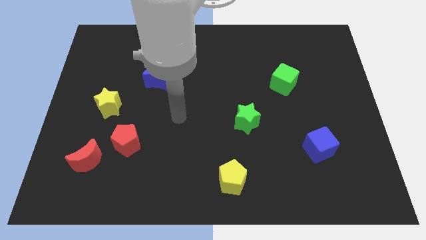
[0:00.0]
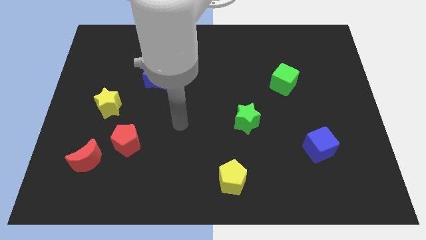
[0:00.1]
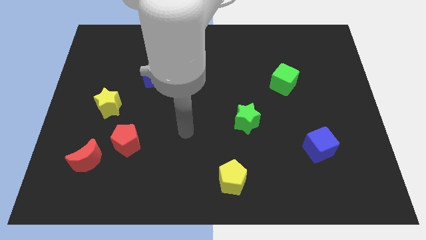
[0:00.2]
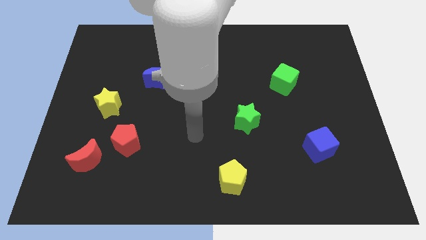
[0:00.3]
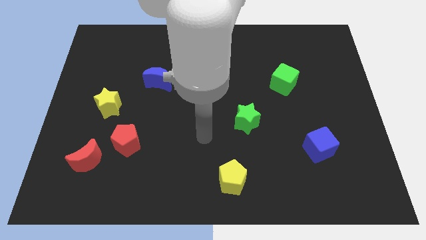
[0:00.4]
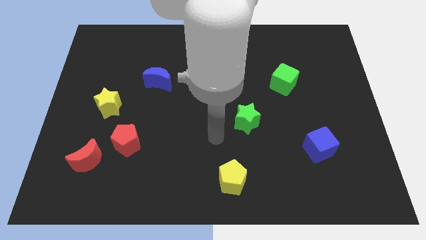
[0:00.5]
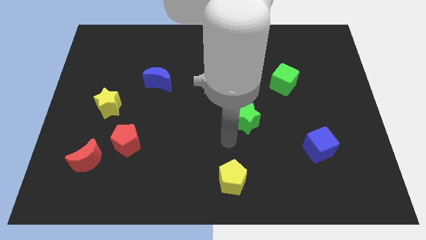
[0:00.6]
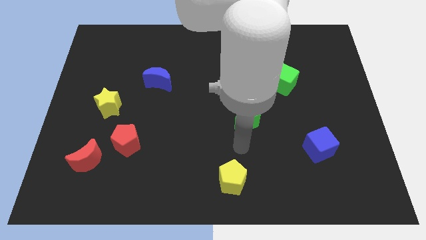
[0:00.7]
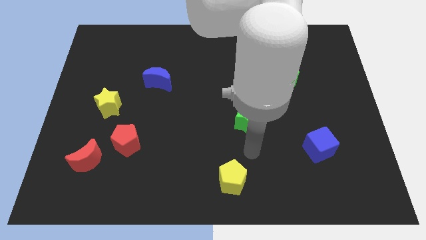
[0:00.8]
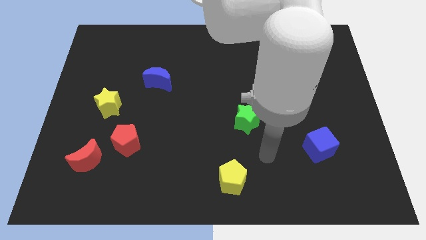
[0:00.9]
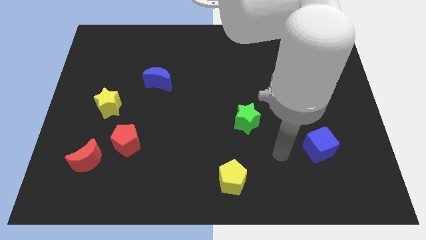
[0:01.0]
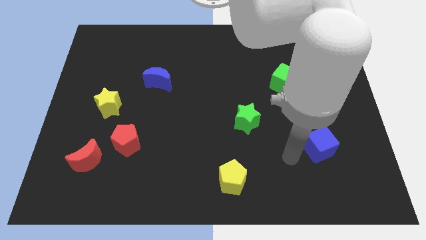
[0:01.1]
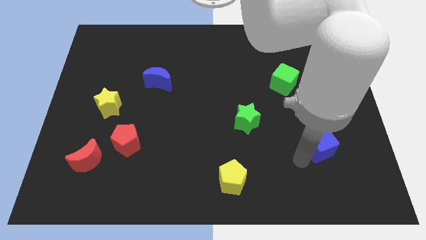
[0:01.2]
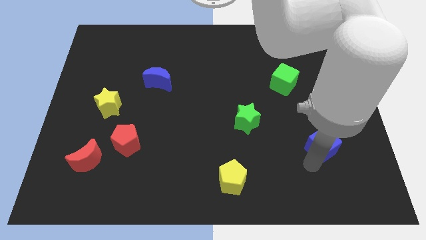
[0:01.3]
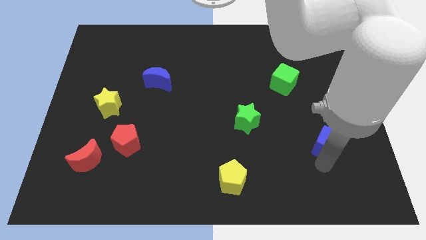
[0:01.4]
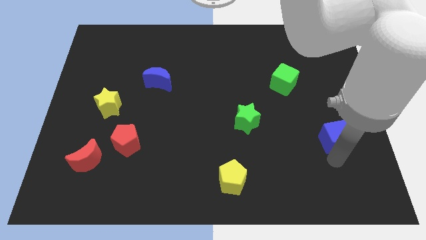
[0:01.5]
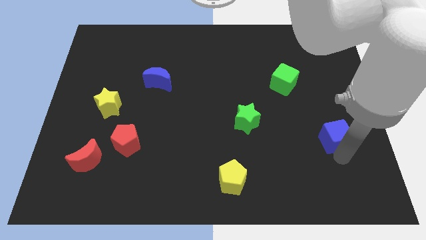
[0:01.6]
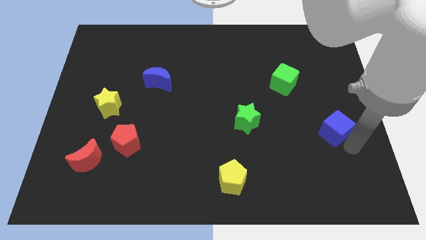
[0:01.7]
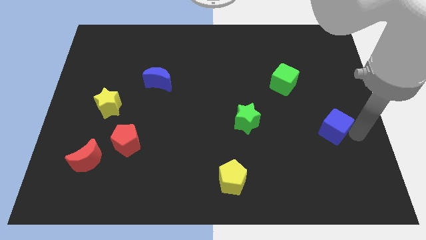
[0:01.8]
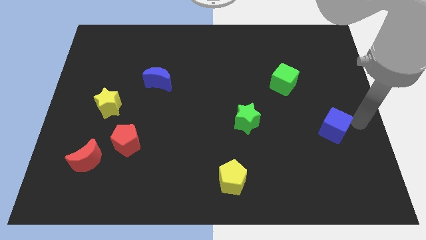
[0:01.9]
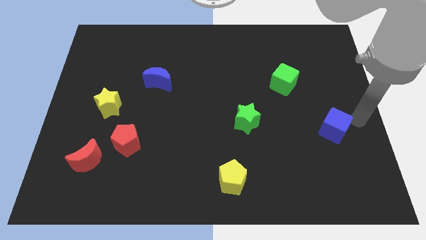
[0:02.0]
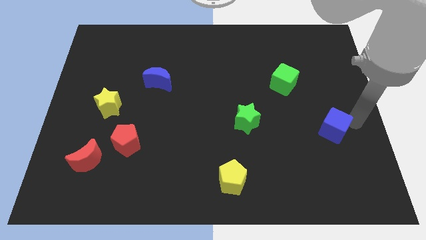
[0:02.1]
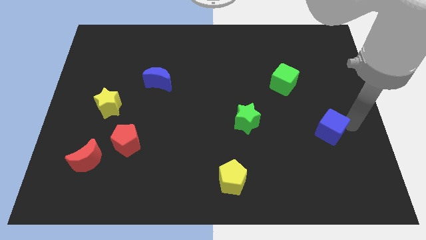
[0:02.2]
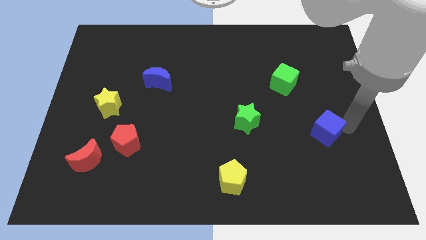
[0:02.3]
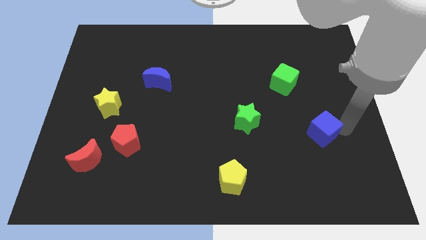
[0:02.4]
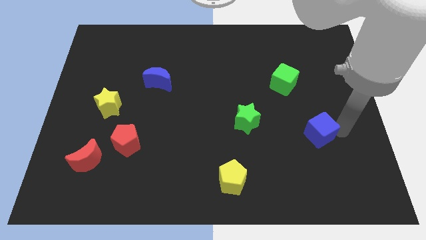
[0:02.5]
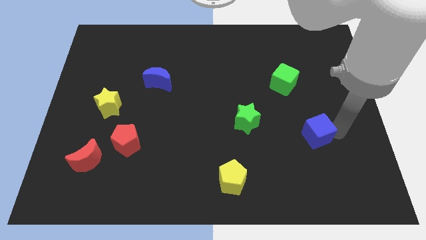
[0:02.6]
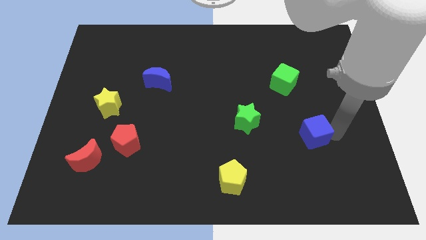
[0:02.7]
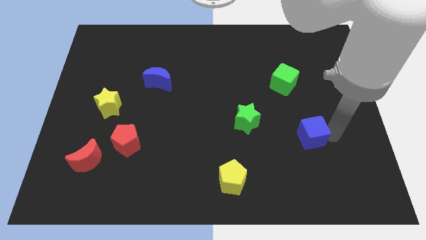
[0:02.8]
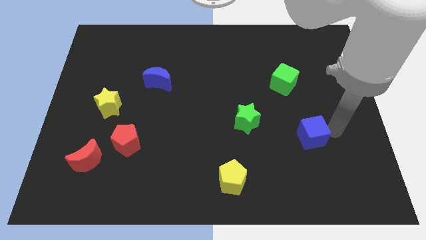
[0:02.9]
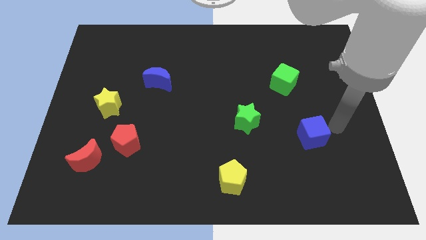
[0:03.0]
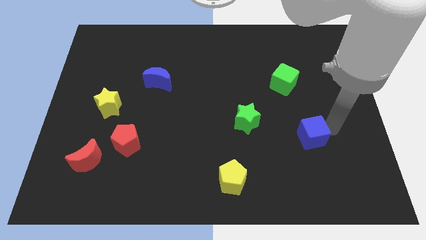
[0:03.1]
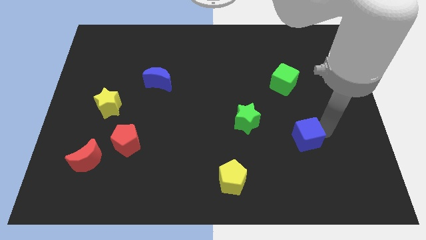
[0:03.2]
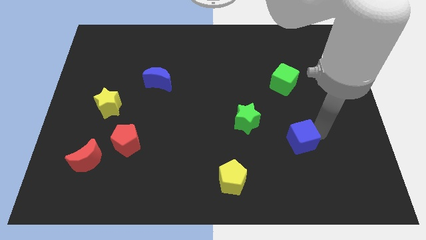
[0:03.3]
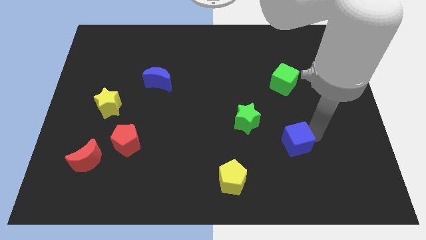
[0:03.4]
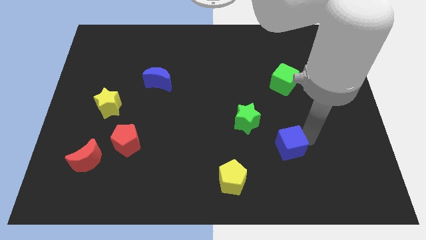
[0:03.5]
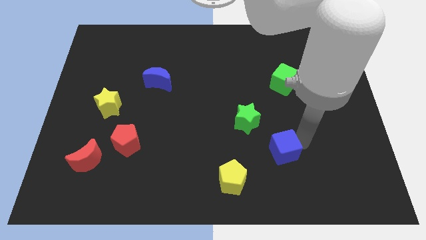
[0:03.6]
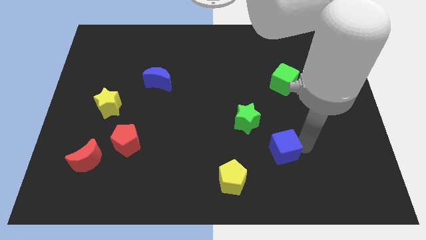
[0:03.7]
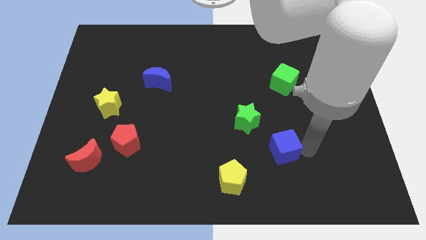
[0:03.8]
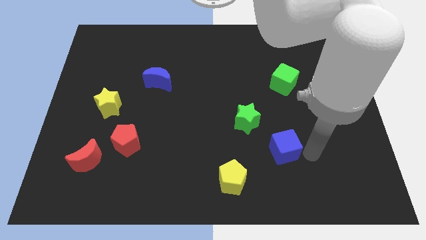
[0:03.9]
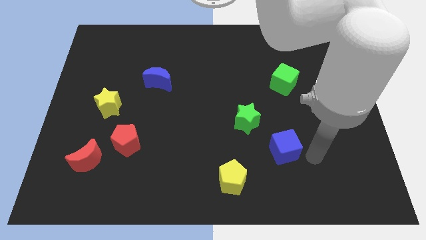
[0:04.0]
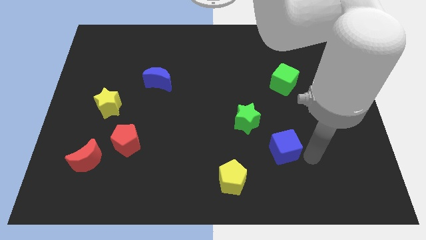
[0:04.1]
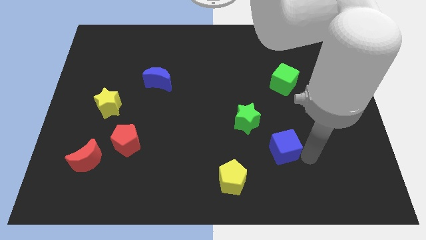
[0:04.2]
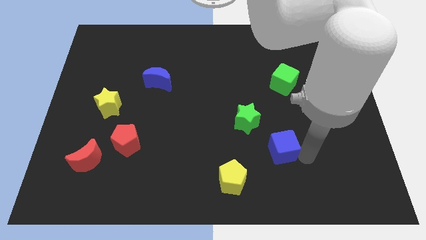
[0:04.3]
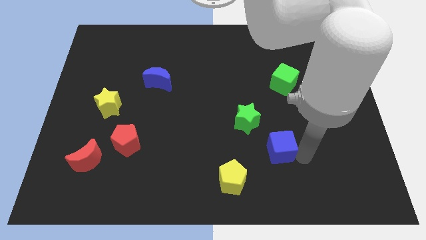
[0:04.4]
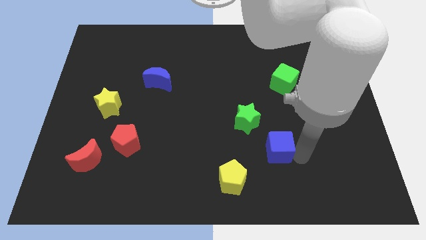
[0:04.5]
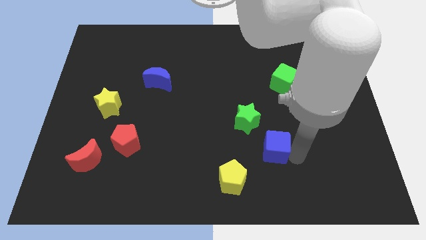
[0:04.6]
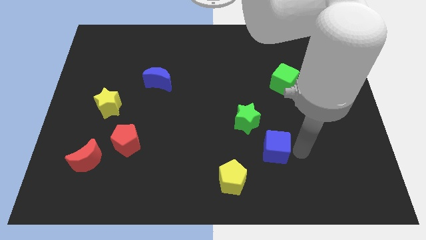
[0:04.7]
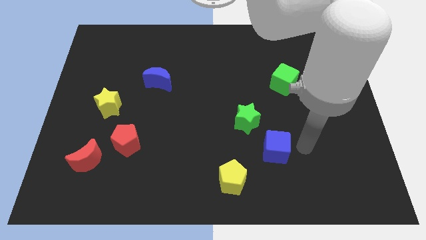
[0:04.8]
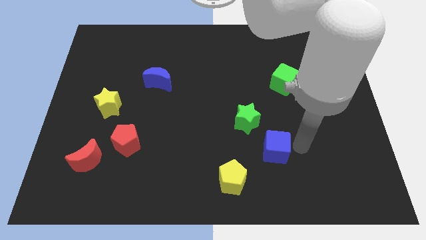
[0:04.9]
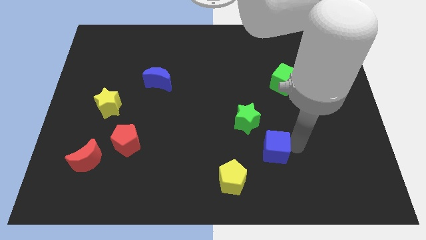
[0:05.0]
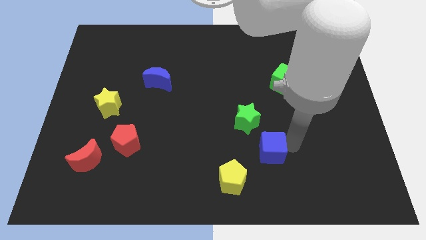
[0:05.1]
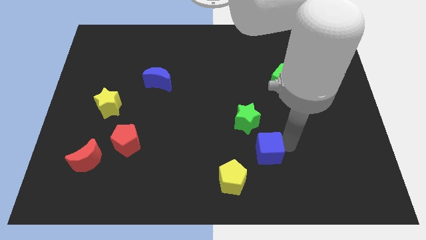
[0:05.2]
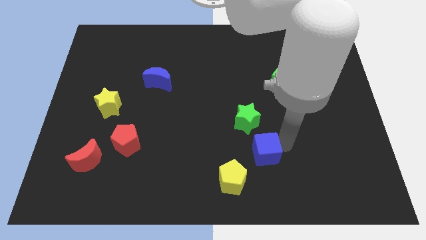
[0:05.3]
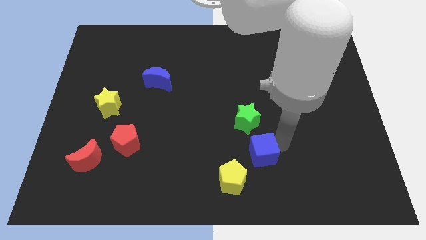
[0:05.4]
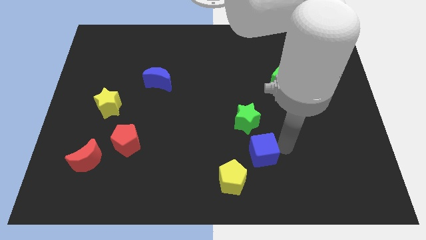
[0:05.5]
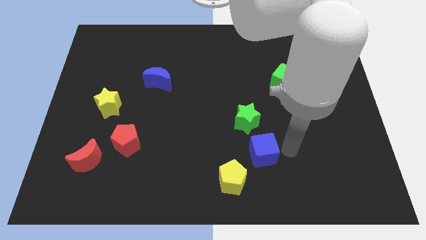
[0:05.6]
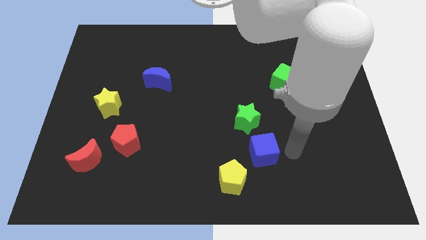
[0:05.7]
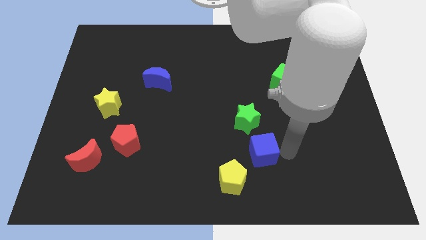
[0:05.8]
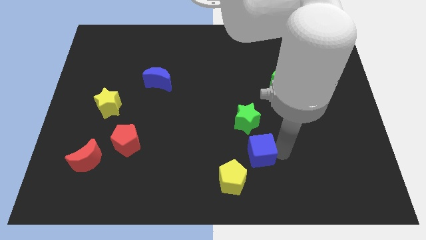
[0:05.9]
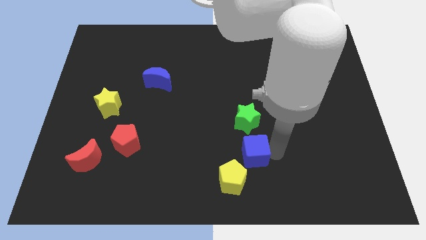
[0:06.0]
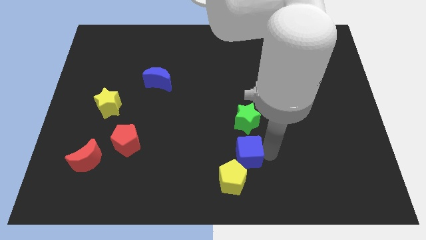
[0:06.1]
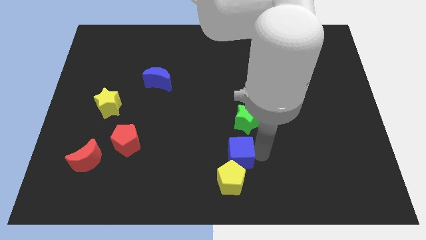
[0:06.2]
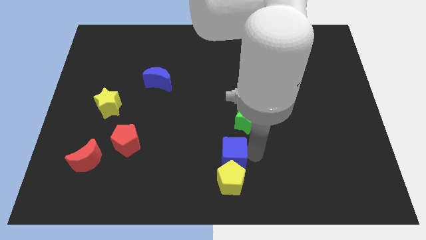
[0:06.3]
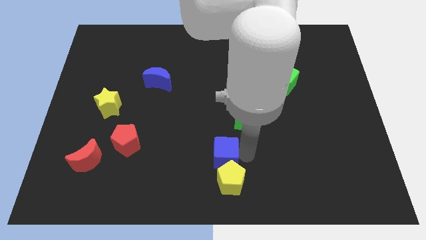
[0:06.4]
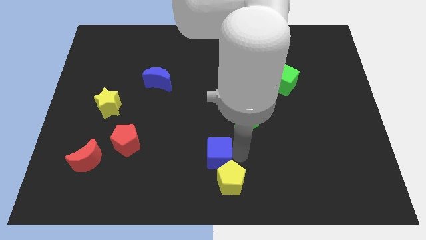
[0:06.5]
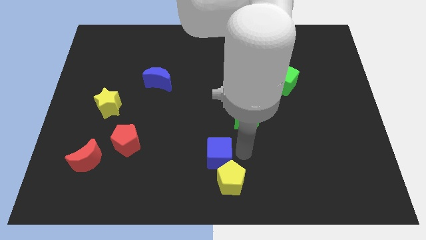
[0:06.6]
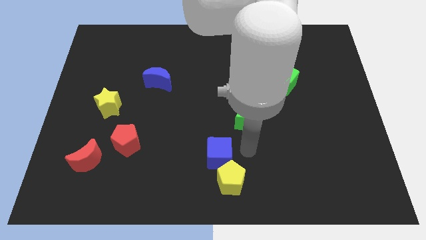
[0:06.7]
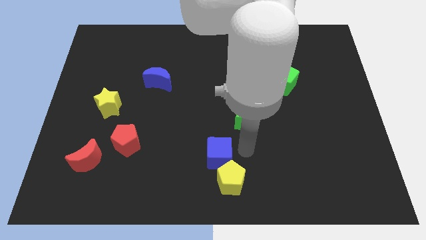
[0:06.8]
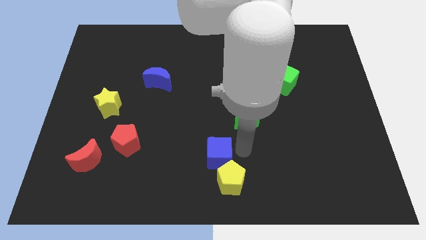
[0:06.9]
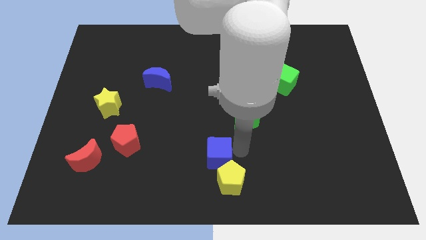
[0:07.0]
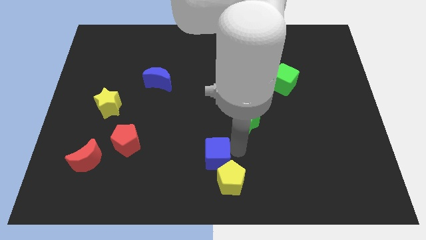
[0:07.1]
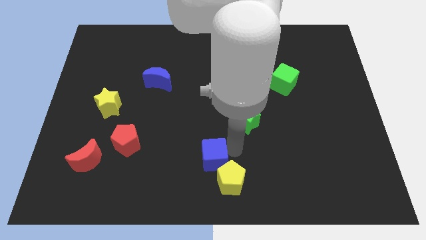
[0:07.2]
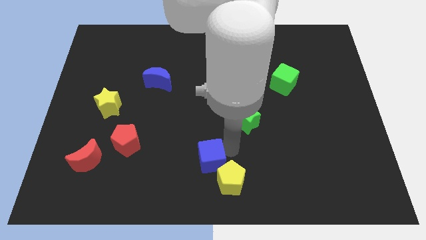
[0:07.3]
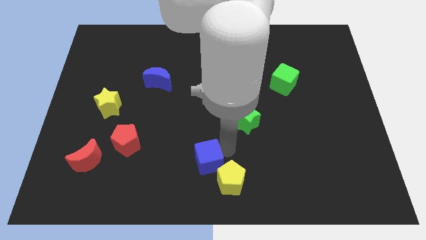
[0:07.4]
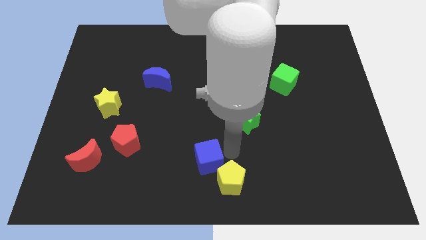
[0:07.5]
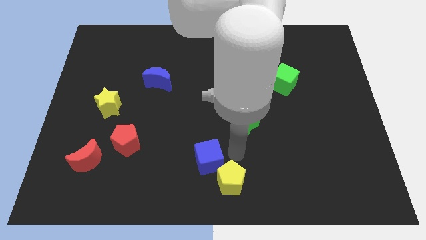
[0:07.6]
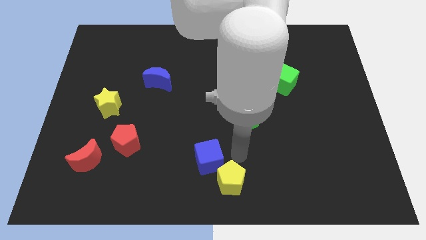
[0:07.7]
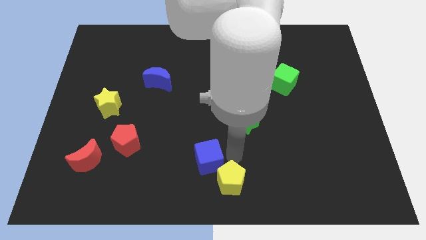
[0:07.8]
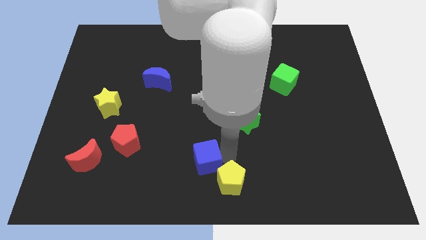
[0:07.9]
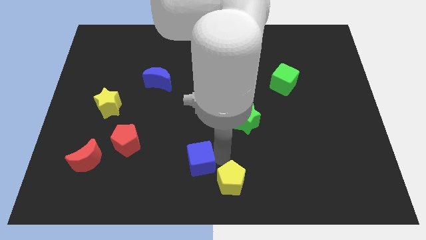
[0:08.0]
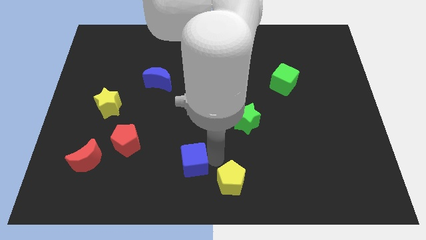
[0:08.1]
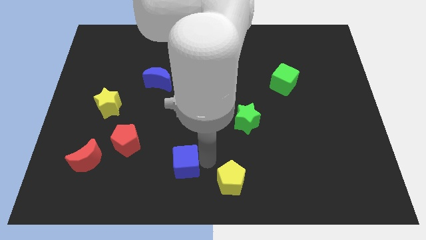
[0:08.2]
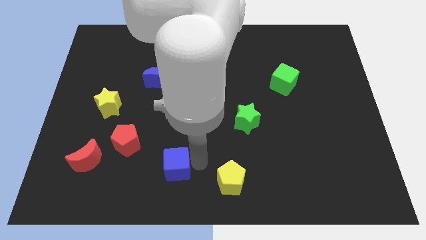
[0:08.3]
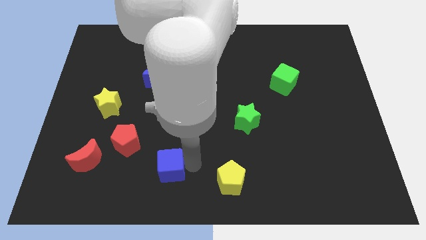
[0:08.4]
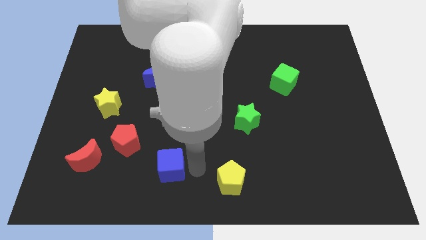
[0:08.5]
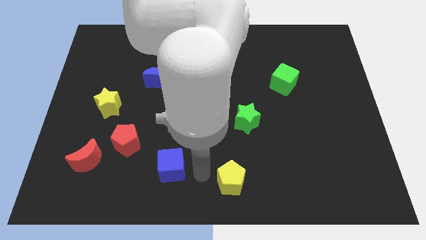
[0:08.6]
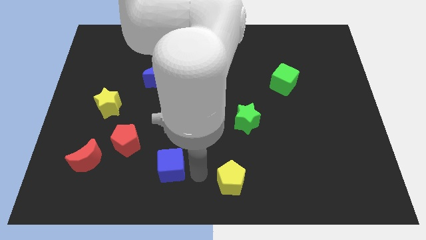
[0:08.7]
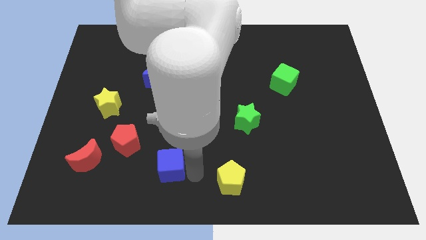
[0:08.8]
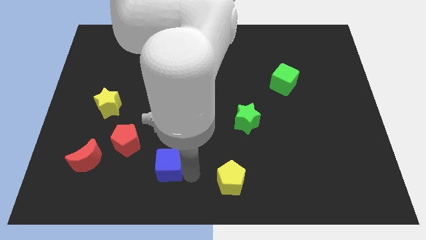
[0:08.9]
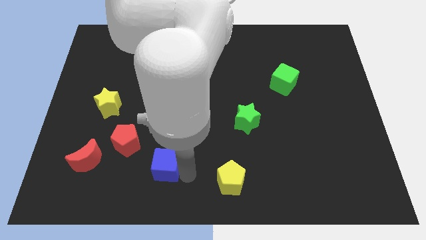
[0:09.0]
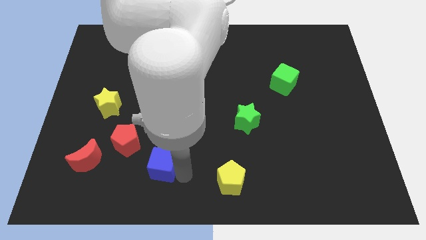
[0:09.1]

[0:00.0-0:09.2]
slide the blue cube to the right side of the red moon
